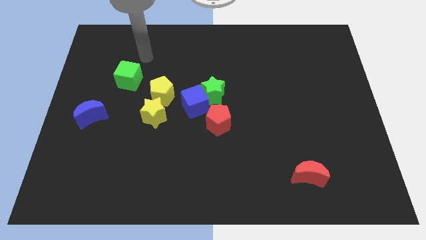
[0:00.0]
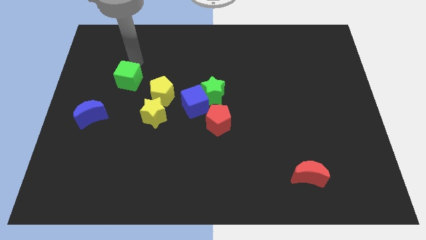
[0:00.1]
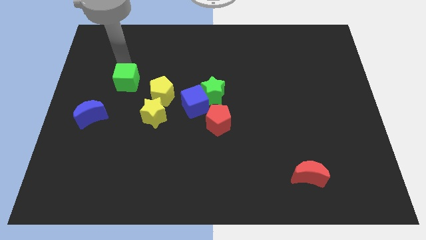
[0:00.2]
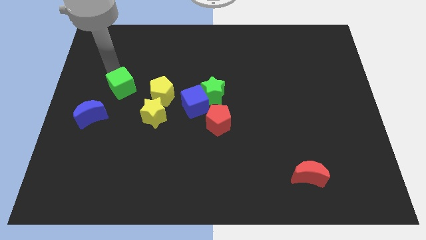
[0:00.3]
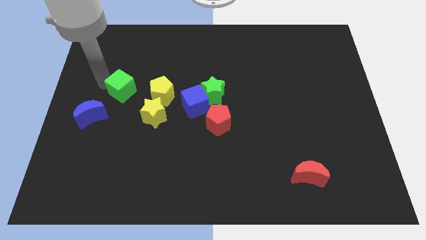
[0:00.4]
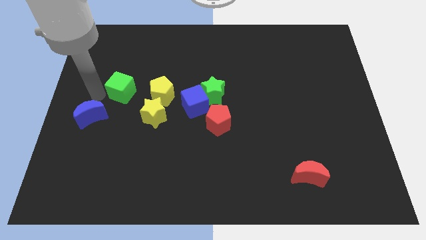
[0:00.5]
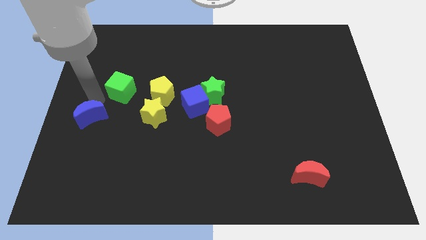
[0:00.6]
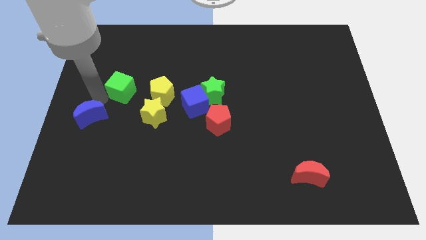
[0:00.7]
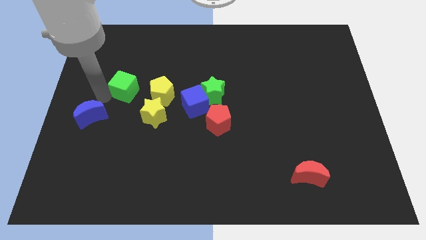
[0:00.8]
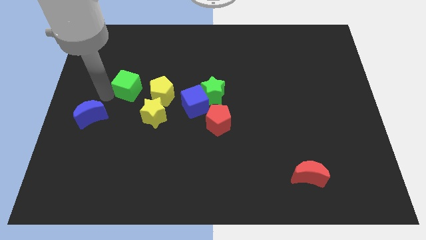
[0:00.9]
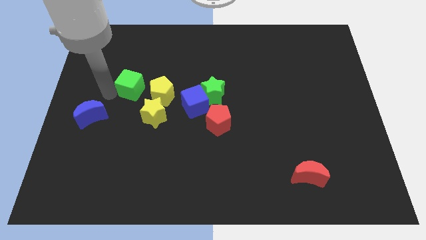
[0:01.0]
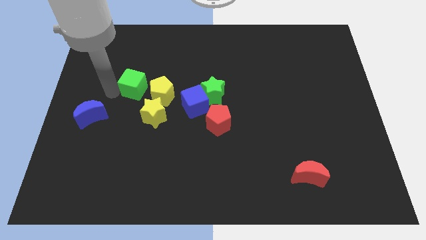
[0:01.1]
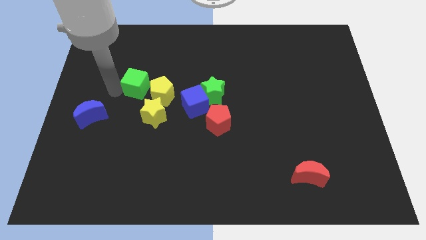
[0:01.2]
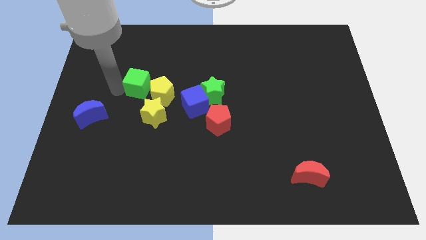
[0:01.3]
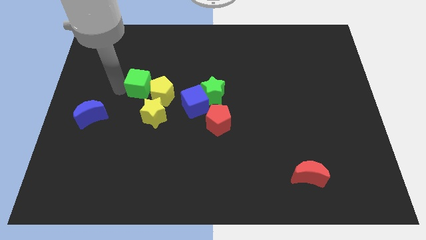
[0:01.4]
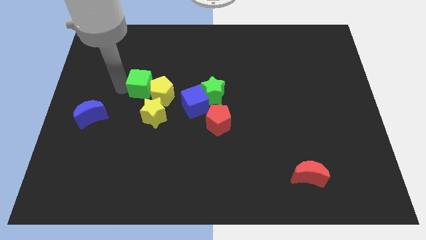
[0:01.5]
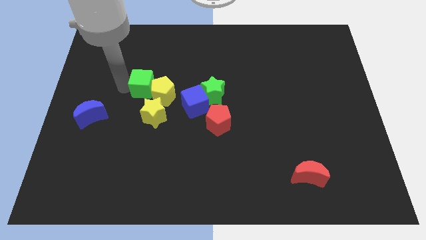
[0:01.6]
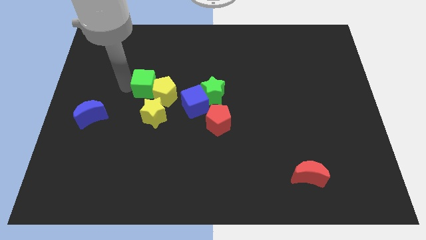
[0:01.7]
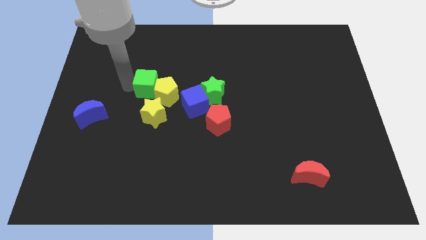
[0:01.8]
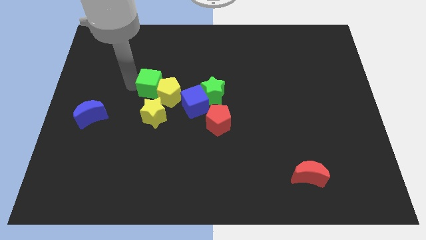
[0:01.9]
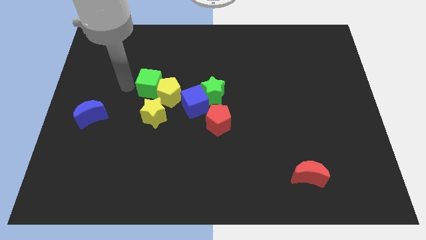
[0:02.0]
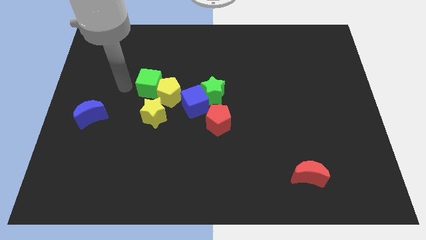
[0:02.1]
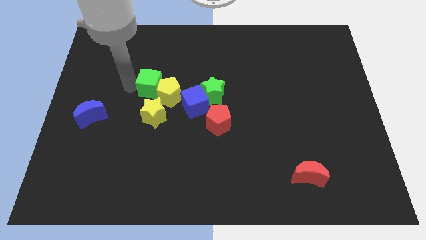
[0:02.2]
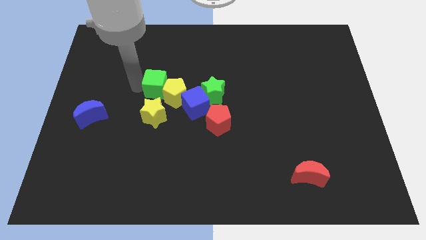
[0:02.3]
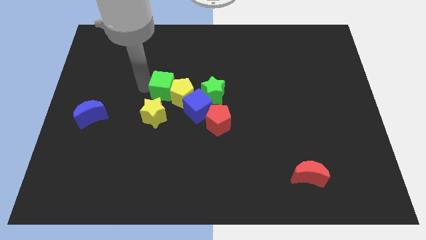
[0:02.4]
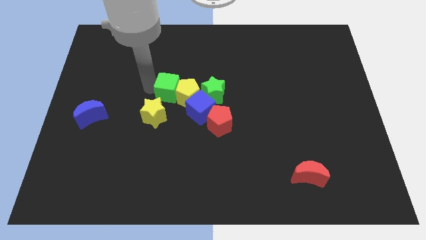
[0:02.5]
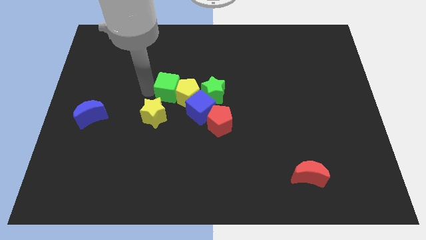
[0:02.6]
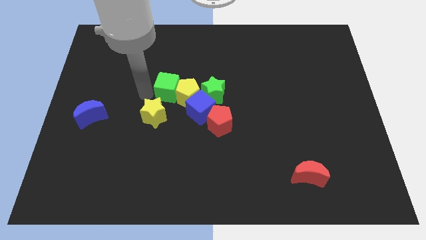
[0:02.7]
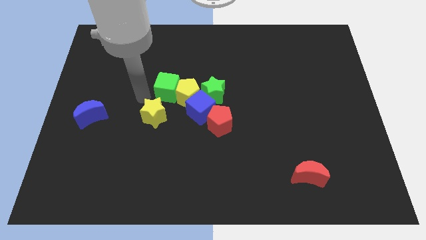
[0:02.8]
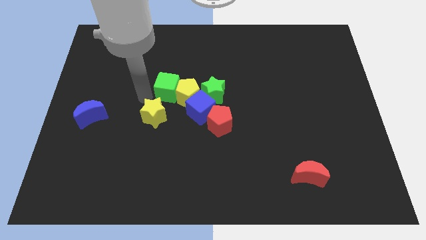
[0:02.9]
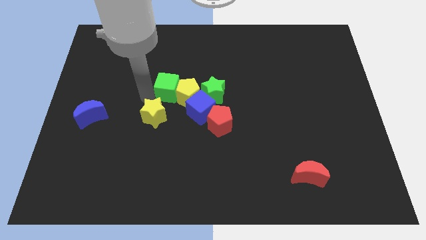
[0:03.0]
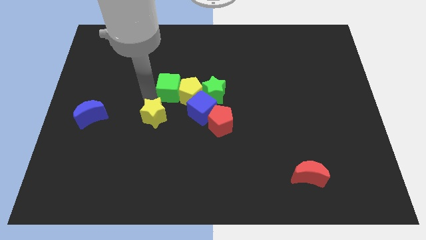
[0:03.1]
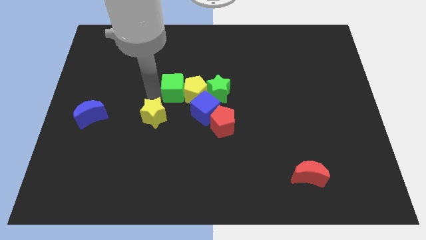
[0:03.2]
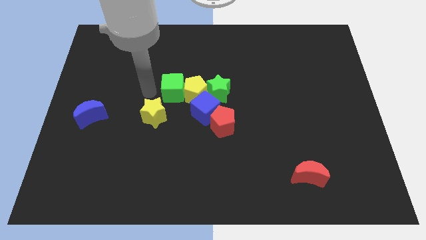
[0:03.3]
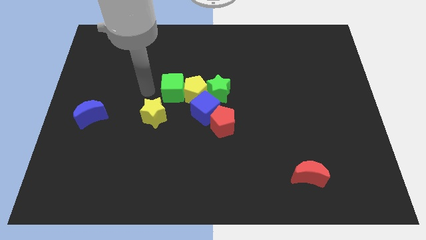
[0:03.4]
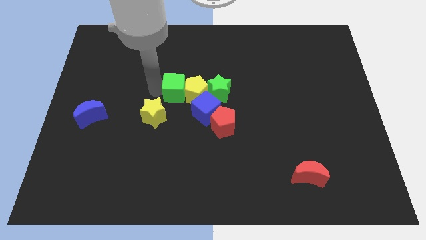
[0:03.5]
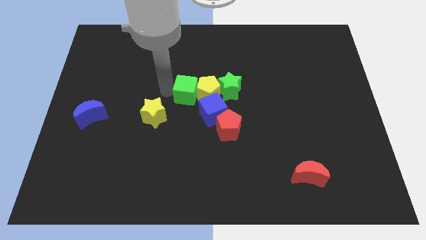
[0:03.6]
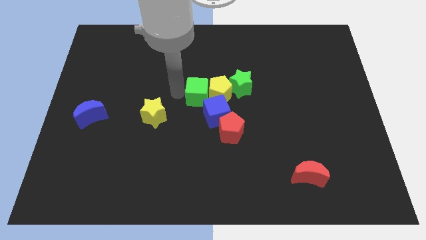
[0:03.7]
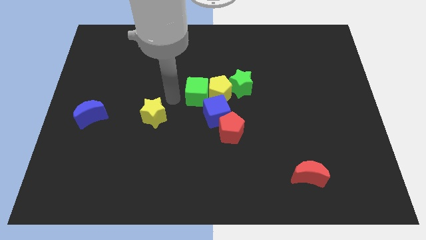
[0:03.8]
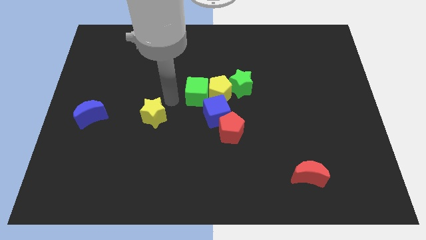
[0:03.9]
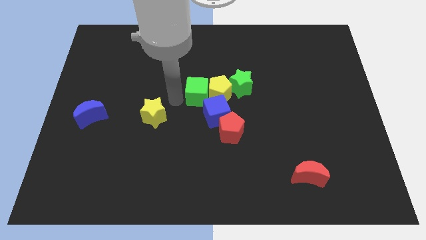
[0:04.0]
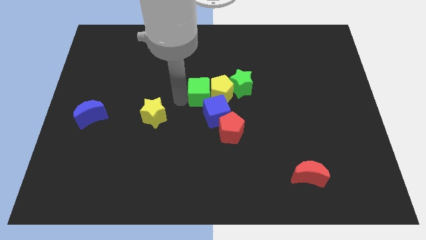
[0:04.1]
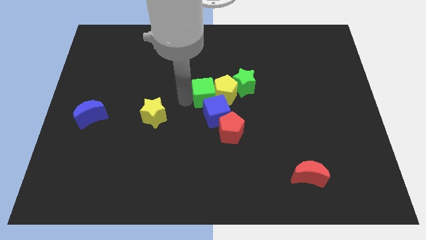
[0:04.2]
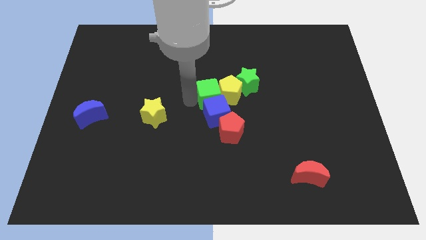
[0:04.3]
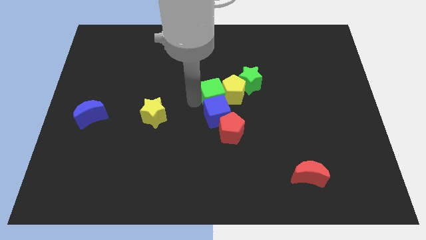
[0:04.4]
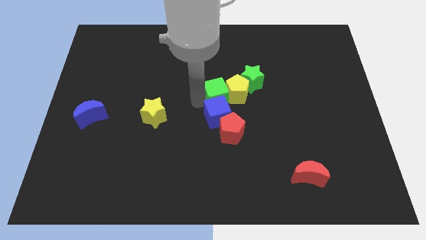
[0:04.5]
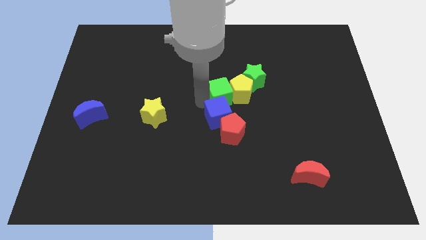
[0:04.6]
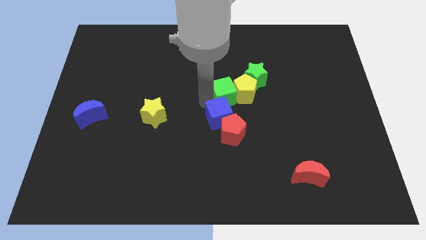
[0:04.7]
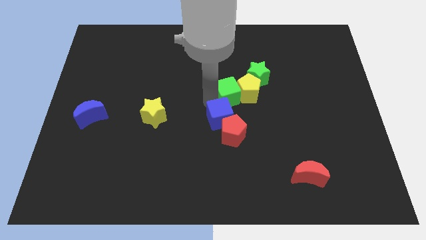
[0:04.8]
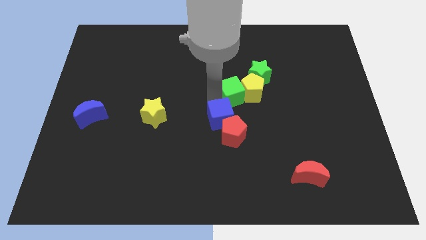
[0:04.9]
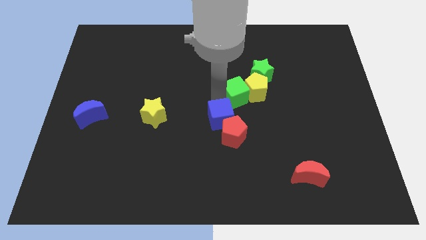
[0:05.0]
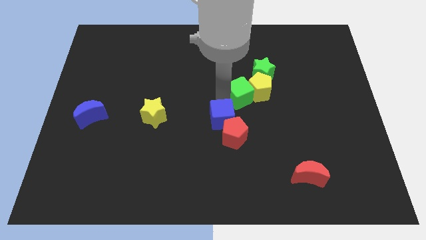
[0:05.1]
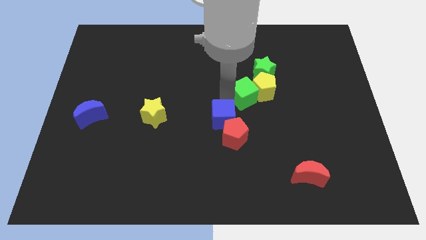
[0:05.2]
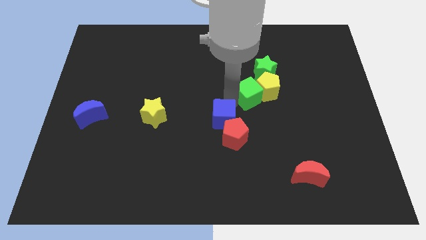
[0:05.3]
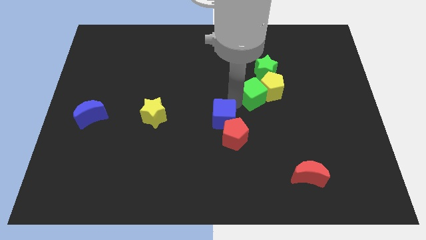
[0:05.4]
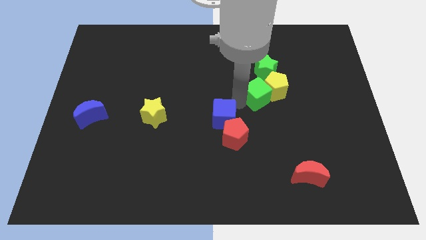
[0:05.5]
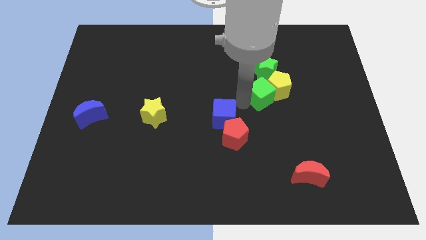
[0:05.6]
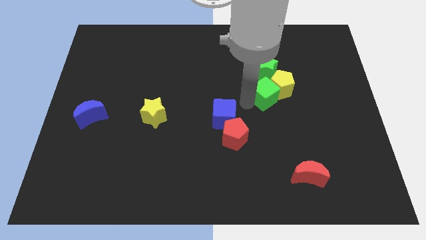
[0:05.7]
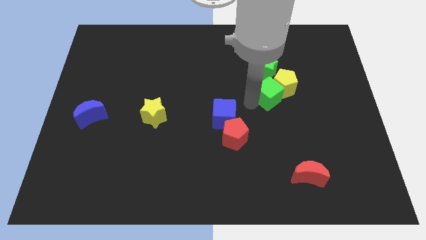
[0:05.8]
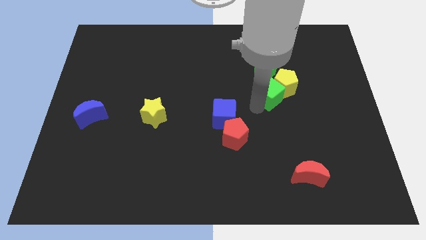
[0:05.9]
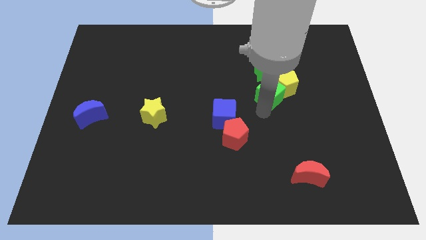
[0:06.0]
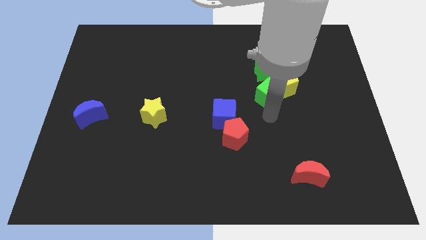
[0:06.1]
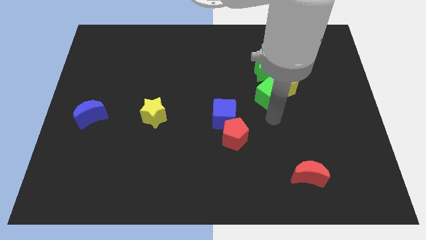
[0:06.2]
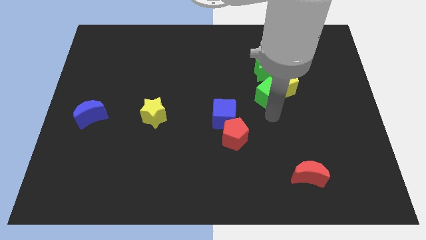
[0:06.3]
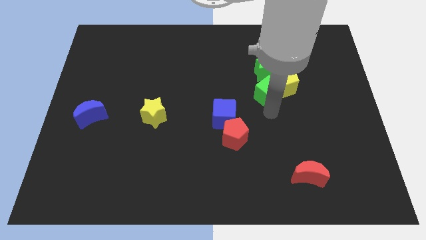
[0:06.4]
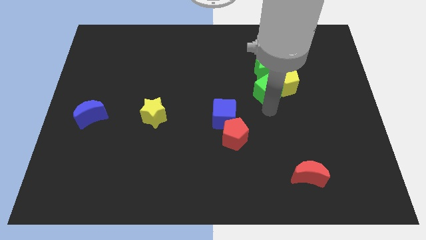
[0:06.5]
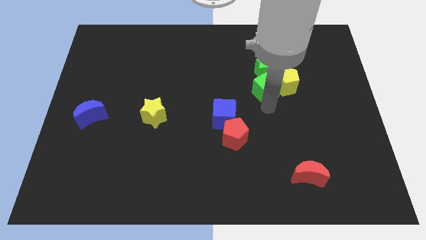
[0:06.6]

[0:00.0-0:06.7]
push the green cube to the green star
